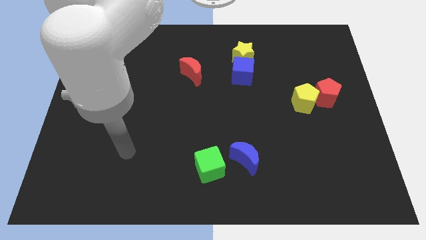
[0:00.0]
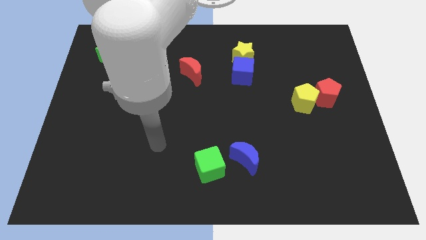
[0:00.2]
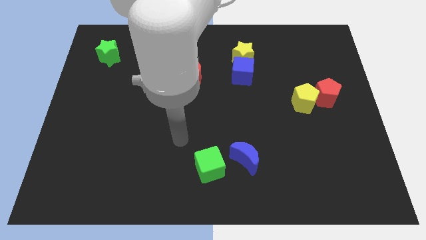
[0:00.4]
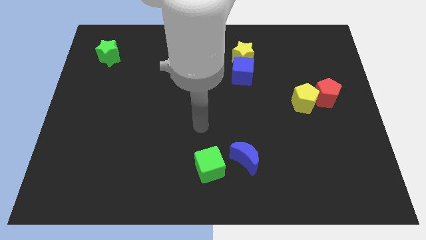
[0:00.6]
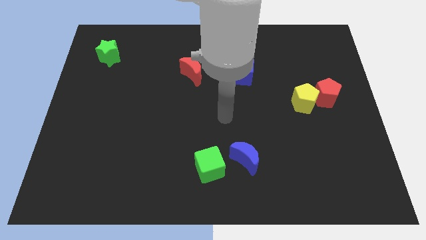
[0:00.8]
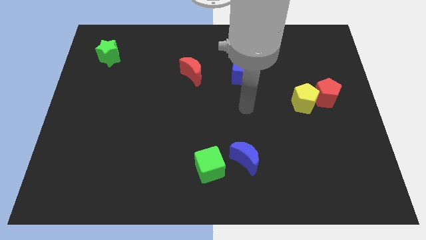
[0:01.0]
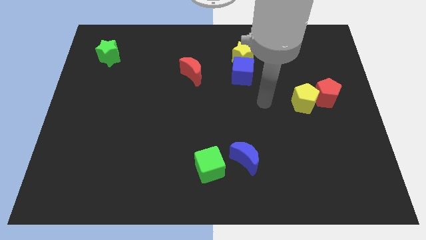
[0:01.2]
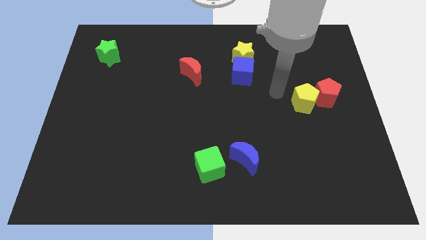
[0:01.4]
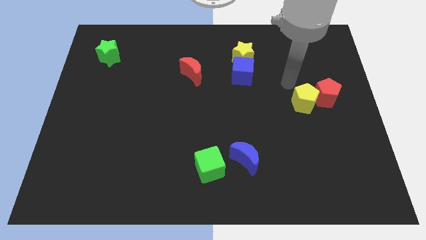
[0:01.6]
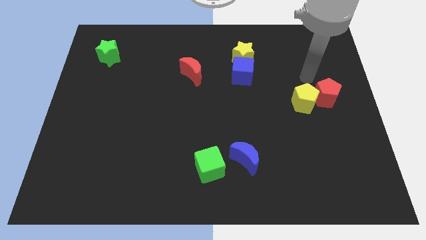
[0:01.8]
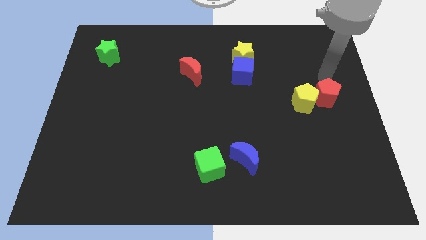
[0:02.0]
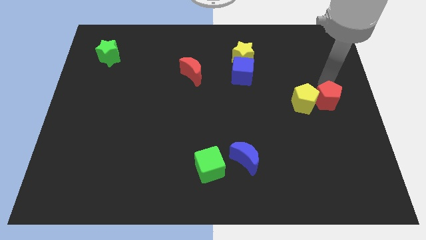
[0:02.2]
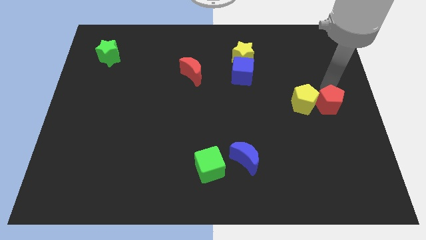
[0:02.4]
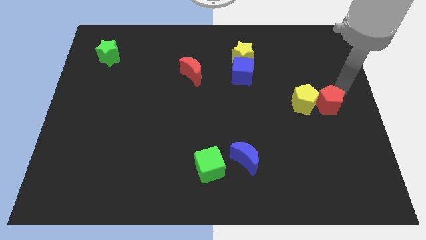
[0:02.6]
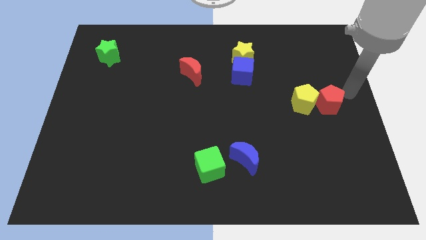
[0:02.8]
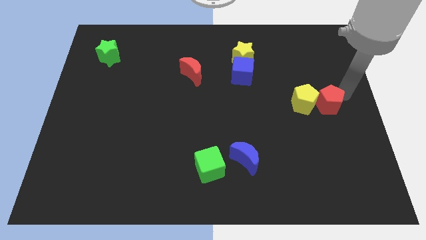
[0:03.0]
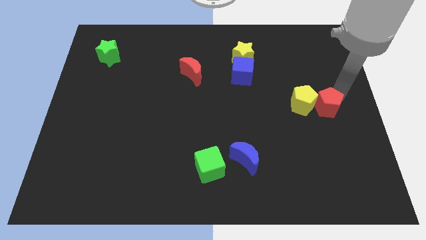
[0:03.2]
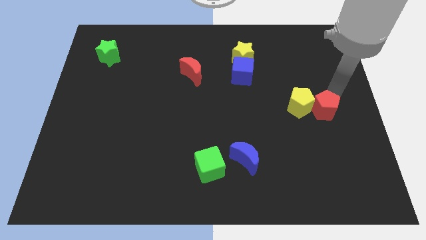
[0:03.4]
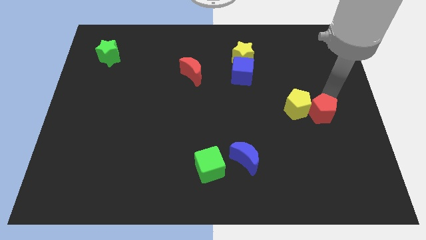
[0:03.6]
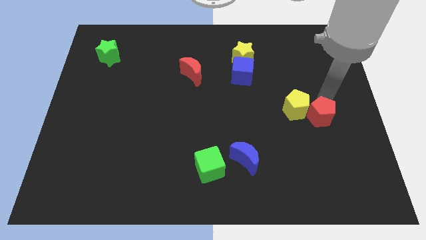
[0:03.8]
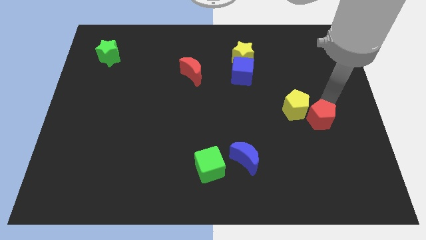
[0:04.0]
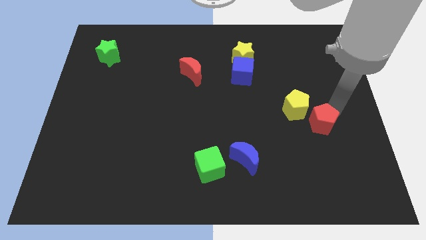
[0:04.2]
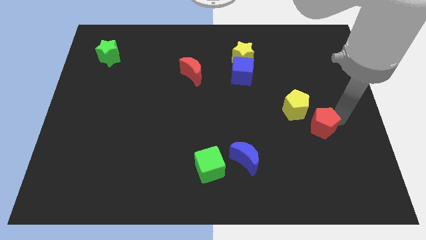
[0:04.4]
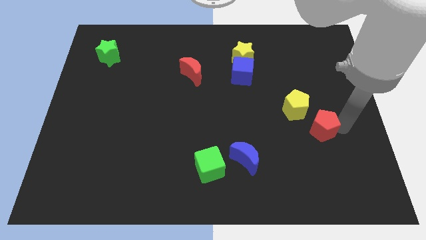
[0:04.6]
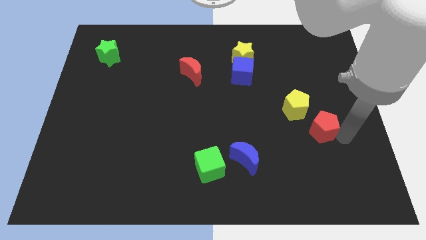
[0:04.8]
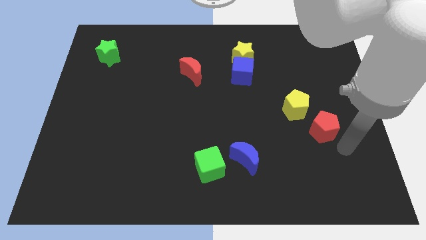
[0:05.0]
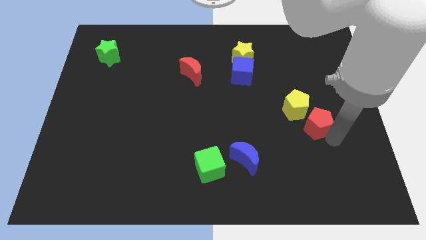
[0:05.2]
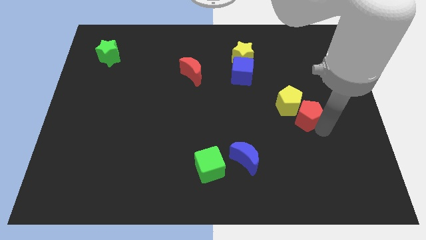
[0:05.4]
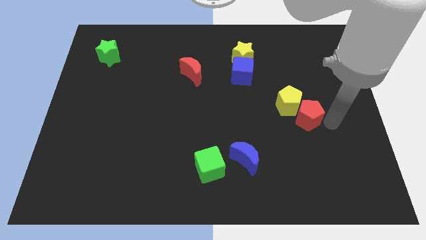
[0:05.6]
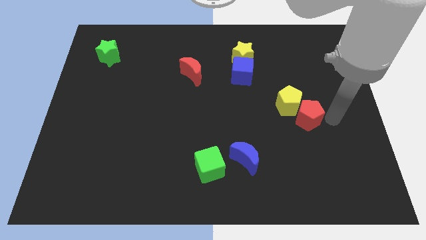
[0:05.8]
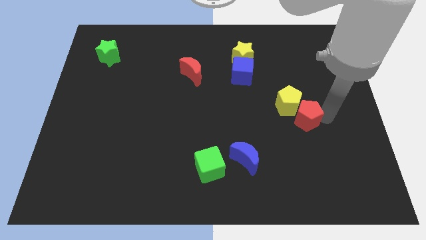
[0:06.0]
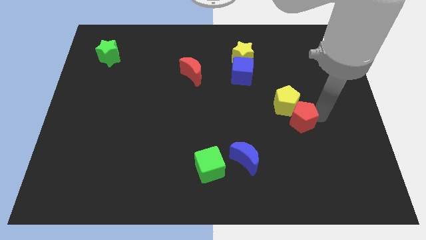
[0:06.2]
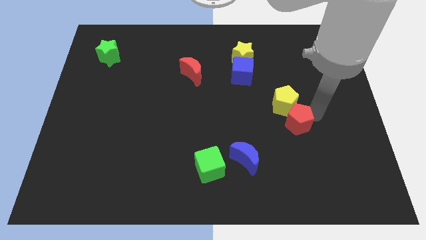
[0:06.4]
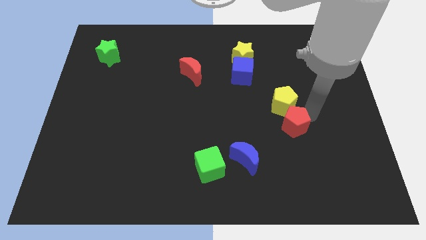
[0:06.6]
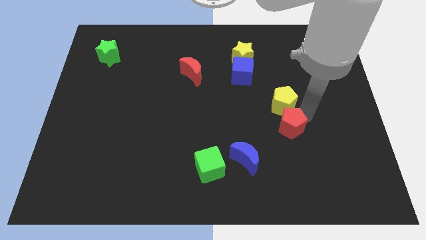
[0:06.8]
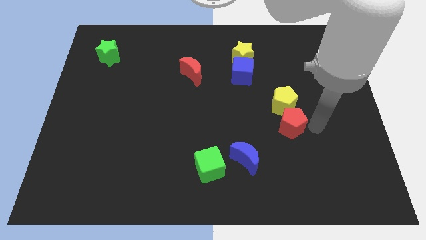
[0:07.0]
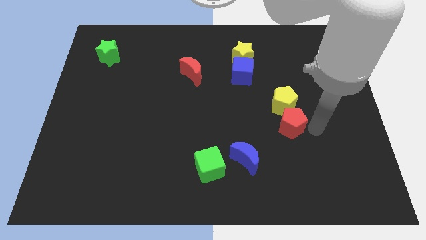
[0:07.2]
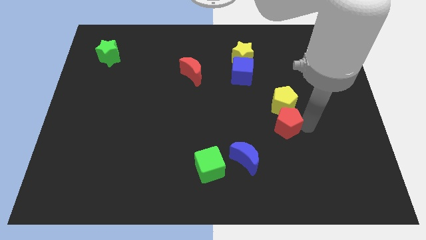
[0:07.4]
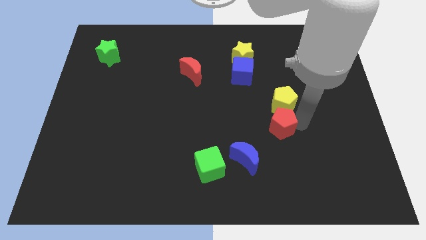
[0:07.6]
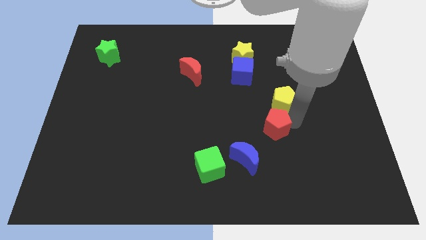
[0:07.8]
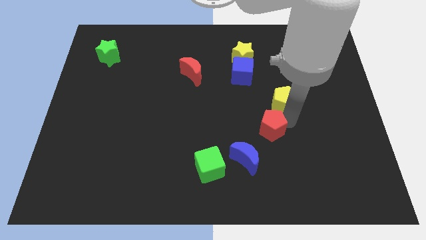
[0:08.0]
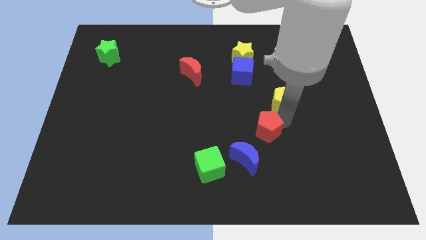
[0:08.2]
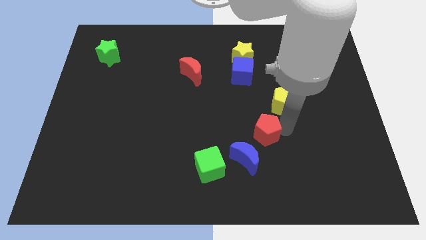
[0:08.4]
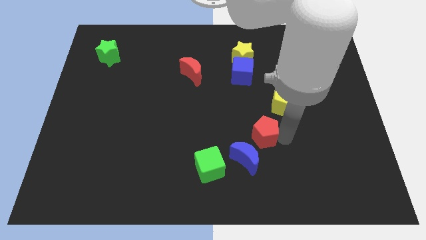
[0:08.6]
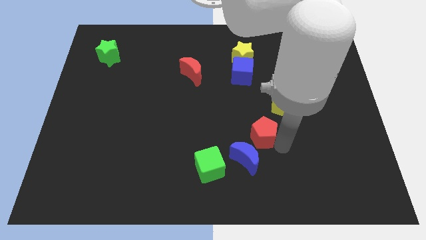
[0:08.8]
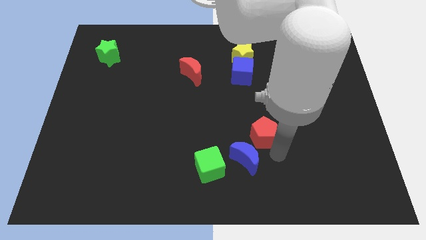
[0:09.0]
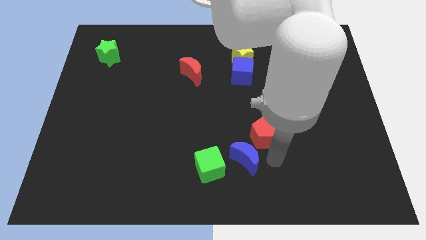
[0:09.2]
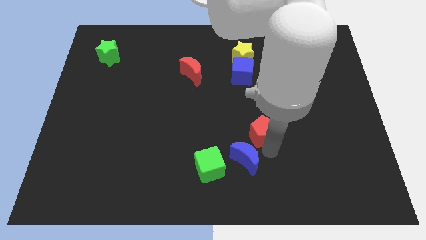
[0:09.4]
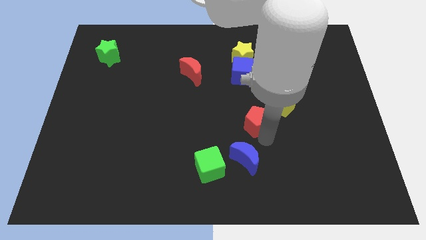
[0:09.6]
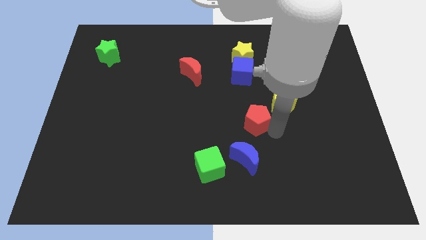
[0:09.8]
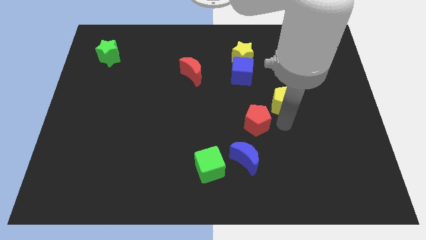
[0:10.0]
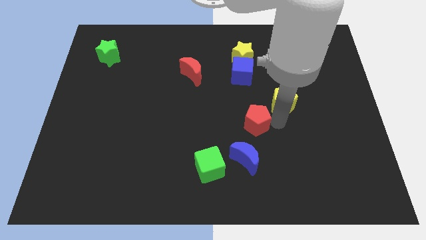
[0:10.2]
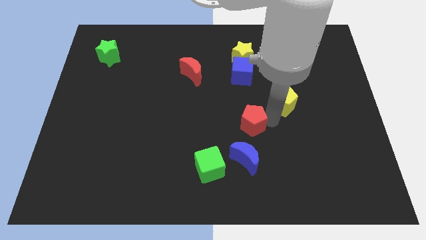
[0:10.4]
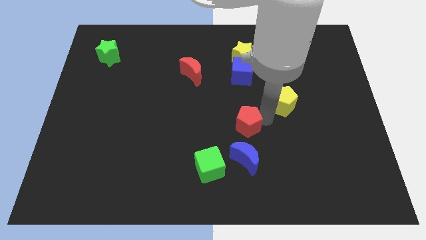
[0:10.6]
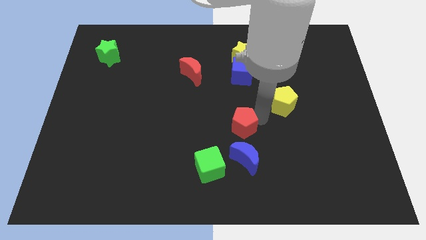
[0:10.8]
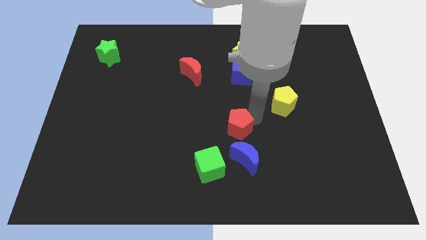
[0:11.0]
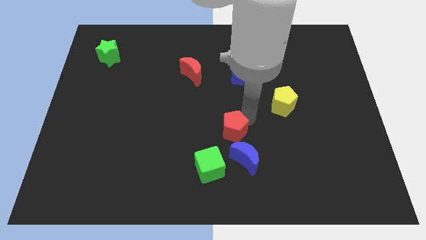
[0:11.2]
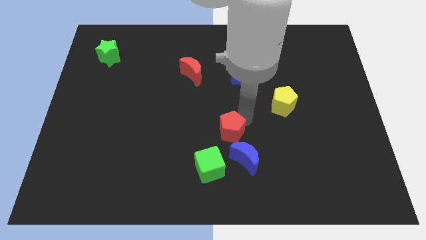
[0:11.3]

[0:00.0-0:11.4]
push the red pentagon to the top side of the green cube

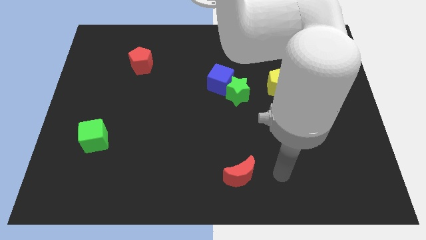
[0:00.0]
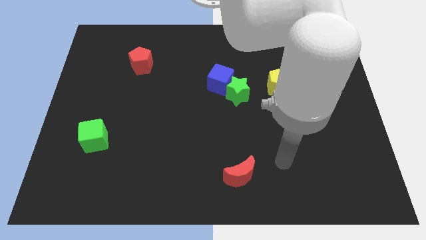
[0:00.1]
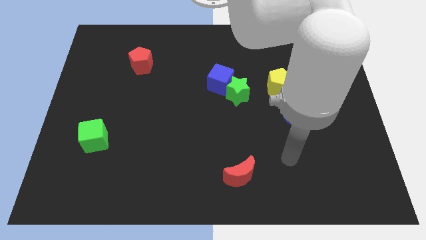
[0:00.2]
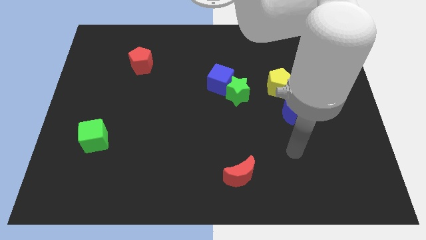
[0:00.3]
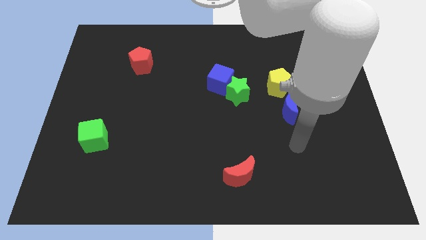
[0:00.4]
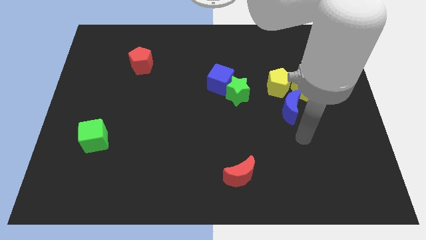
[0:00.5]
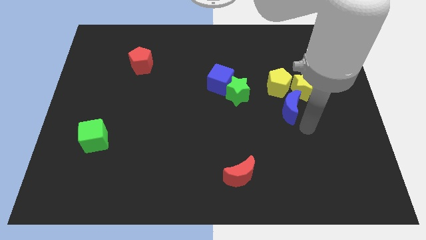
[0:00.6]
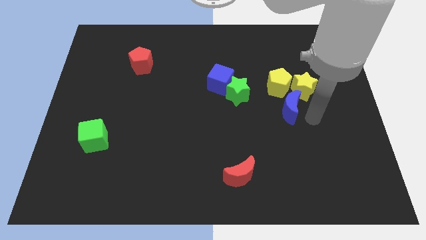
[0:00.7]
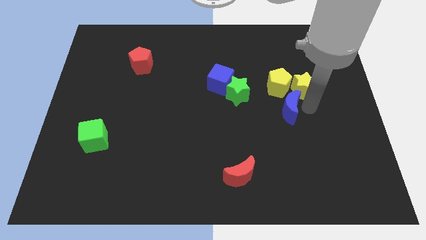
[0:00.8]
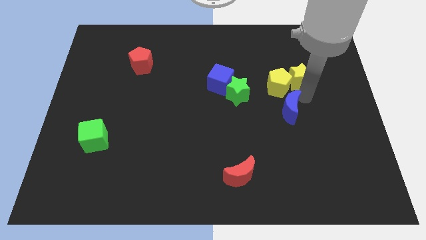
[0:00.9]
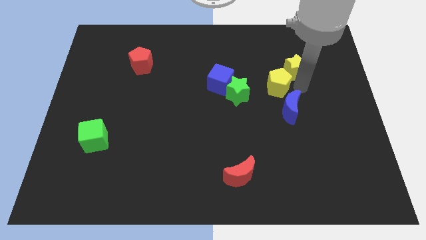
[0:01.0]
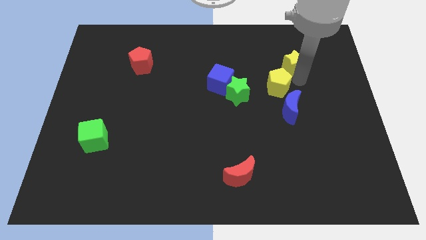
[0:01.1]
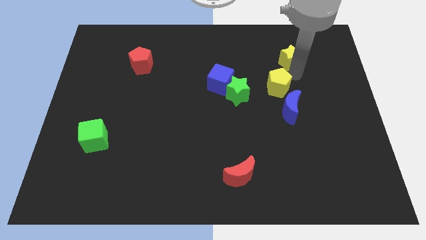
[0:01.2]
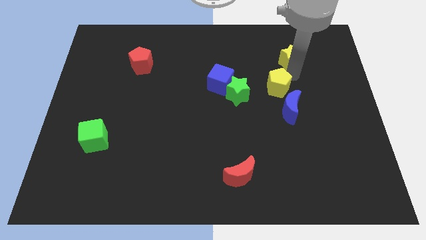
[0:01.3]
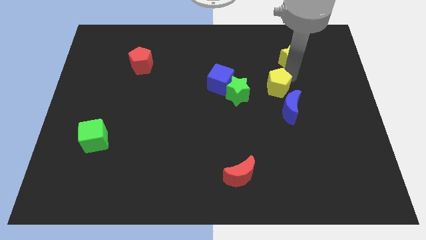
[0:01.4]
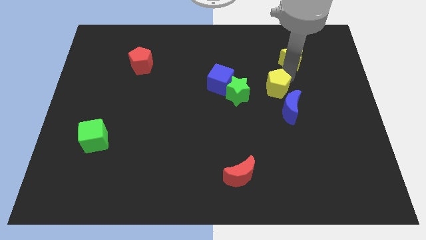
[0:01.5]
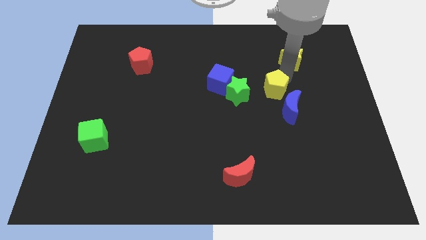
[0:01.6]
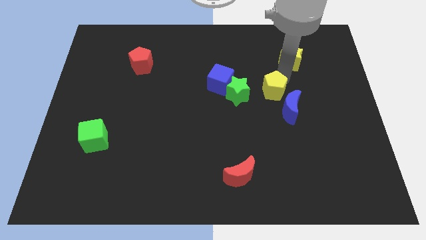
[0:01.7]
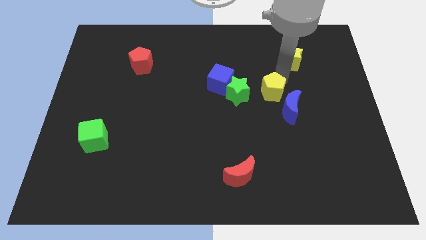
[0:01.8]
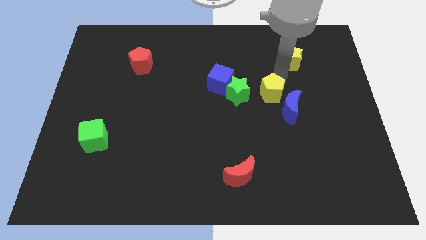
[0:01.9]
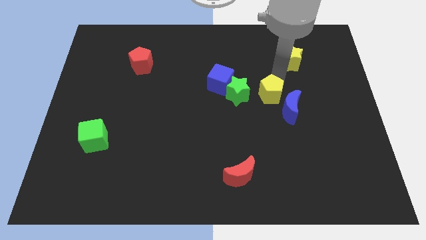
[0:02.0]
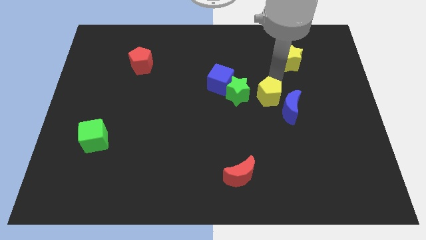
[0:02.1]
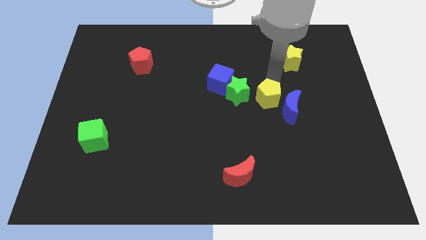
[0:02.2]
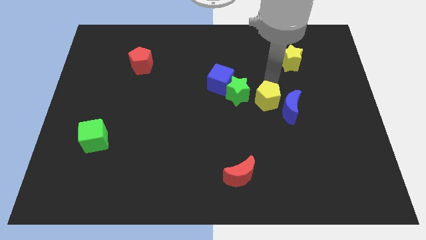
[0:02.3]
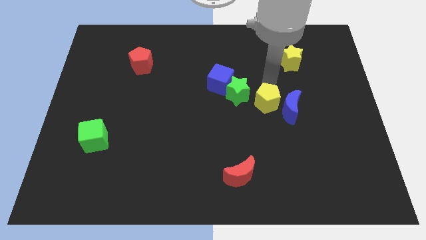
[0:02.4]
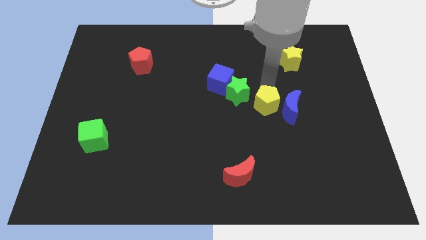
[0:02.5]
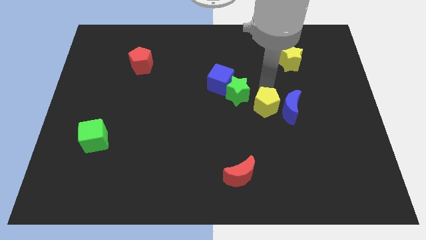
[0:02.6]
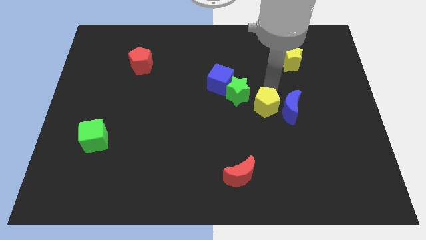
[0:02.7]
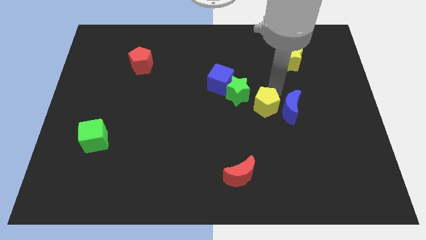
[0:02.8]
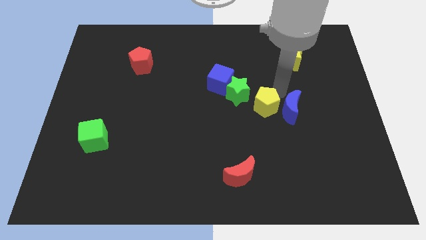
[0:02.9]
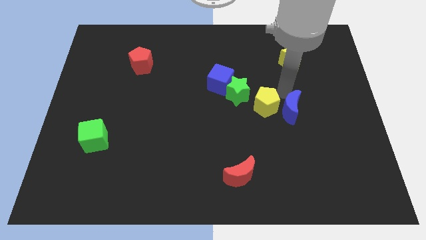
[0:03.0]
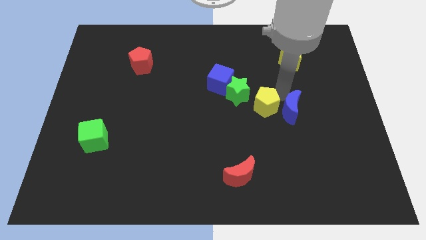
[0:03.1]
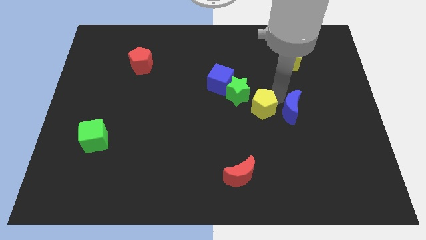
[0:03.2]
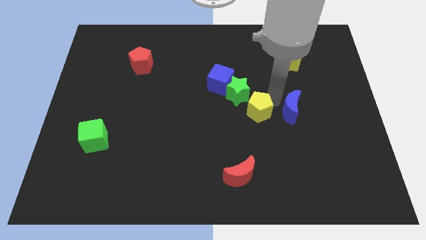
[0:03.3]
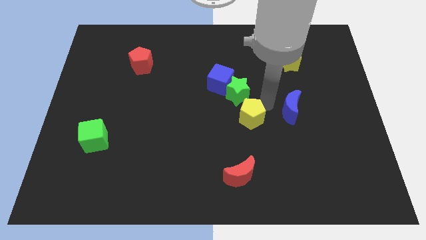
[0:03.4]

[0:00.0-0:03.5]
move the yellow pentagon to the top side of the red moon
